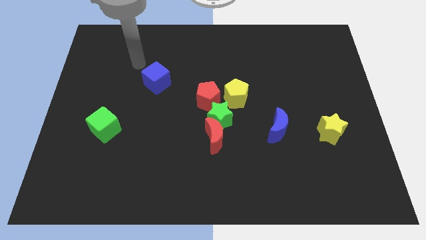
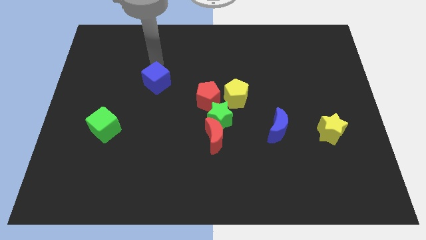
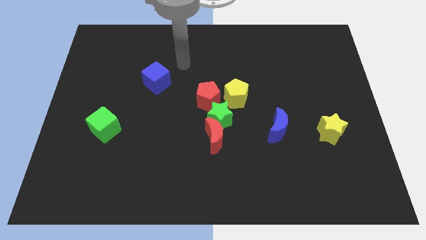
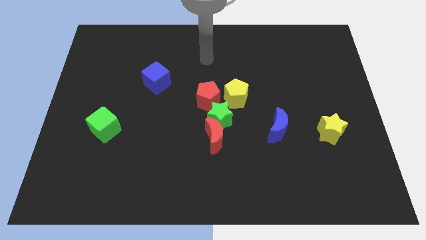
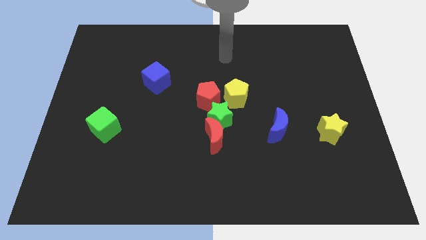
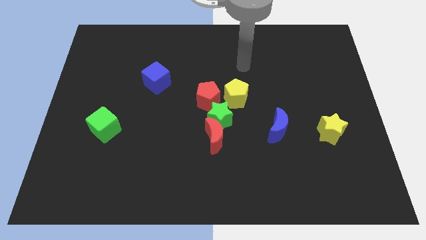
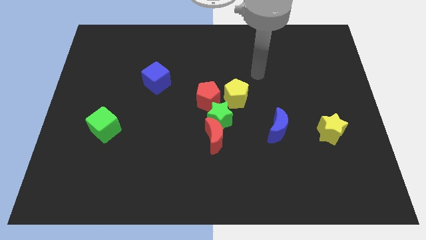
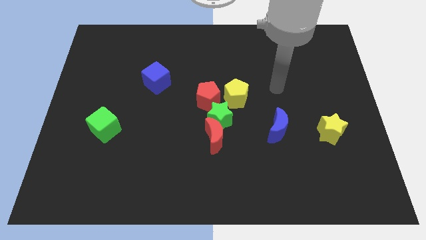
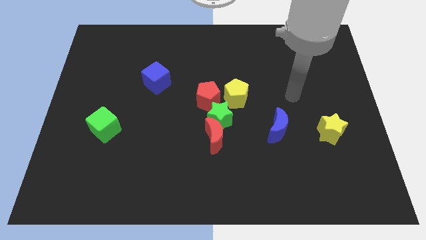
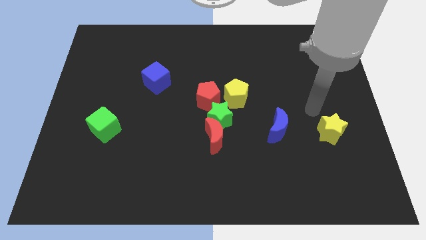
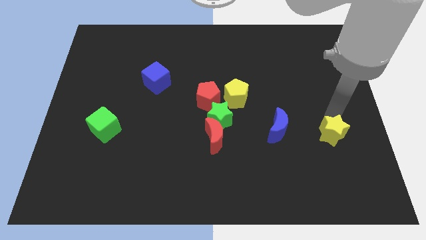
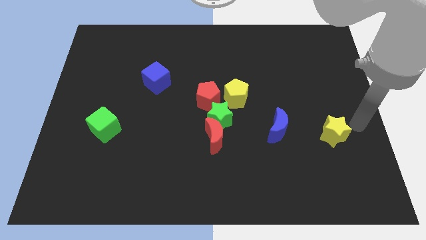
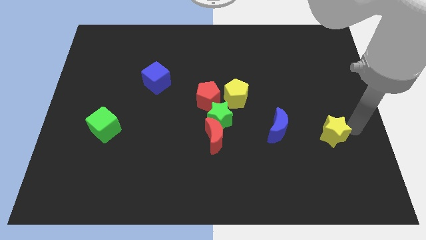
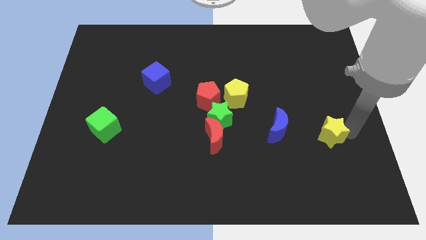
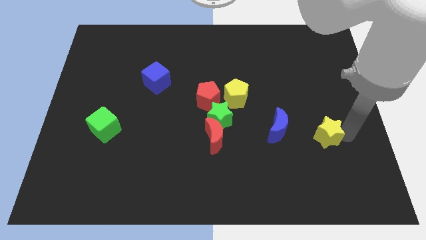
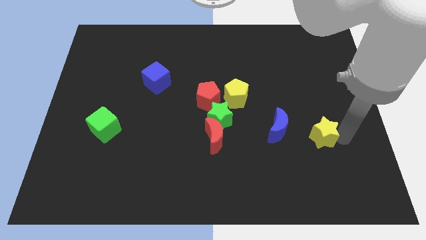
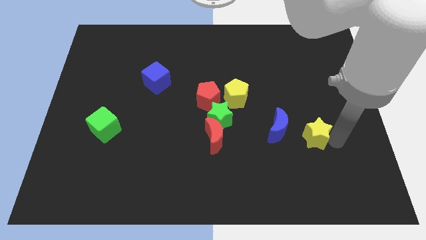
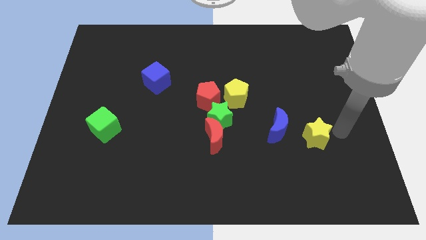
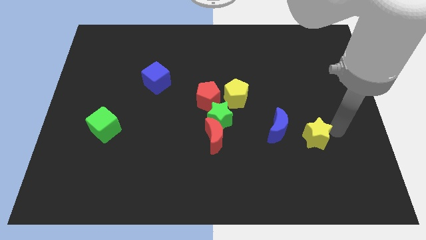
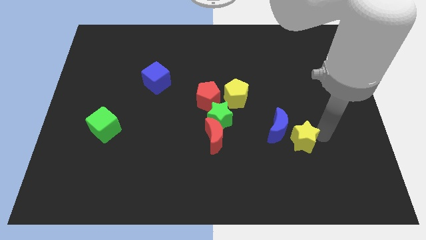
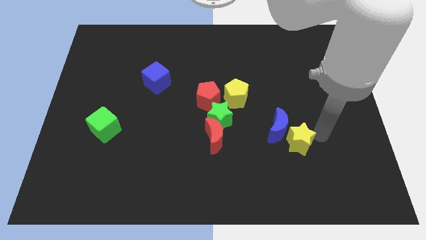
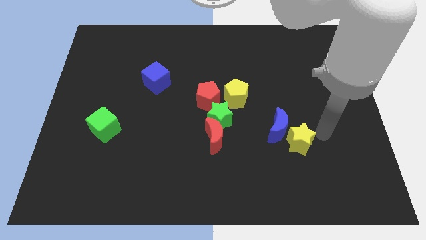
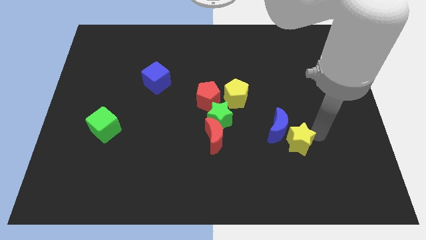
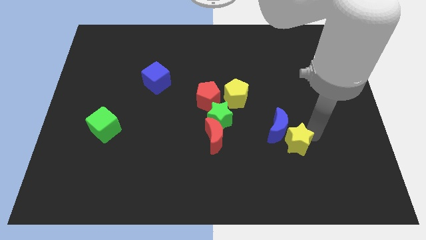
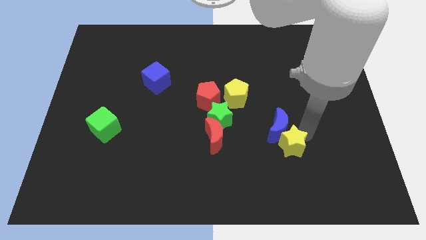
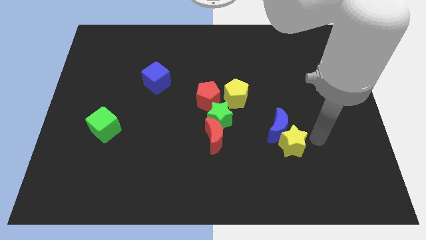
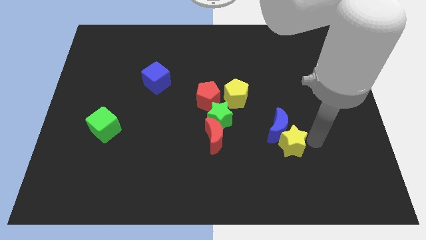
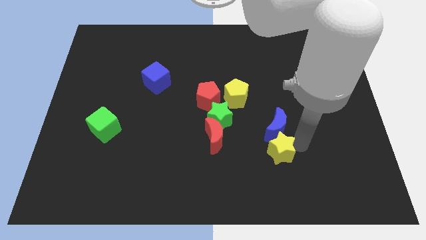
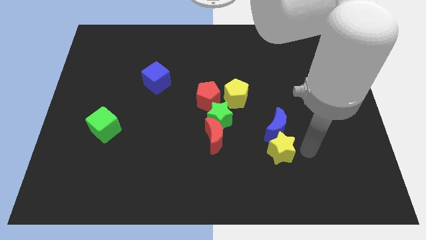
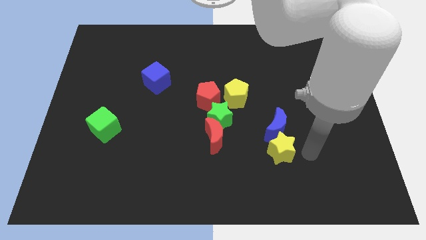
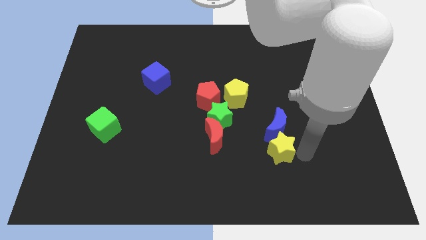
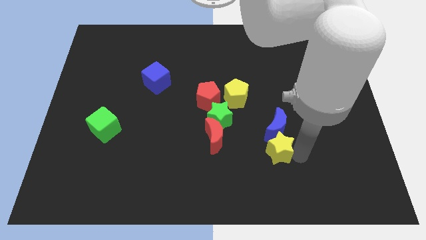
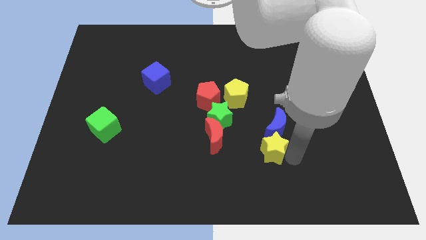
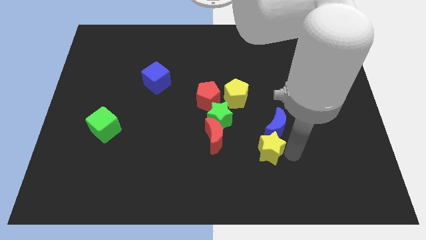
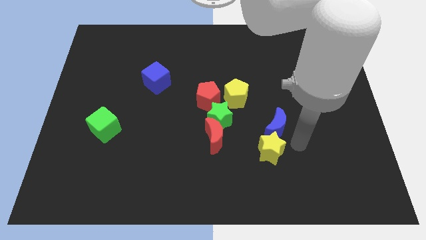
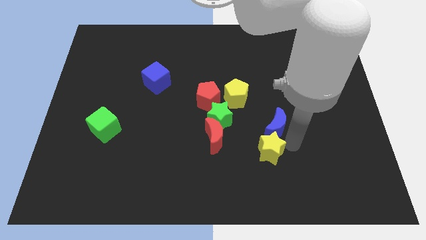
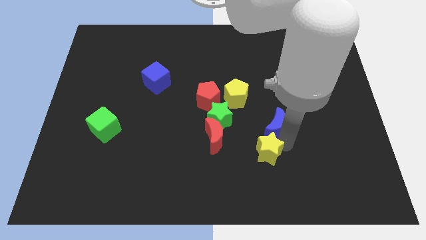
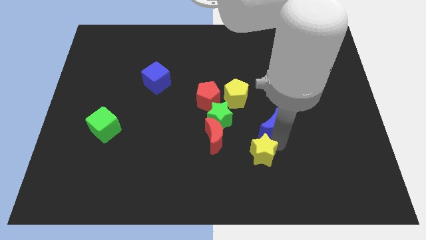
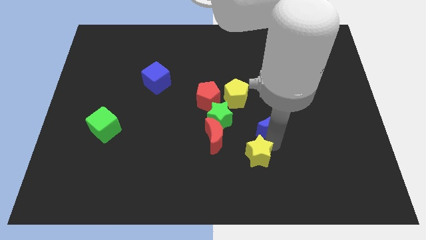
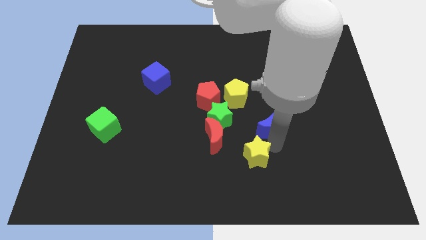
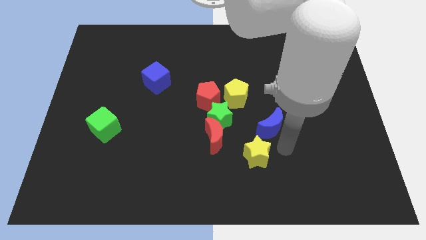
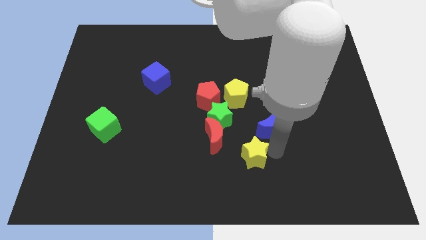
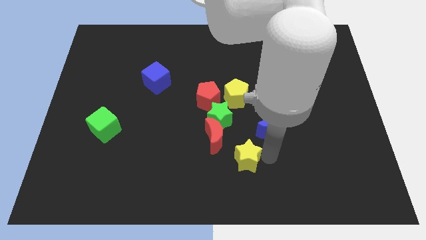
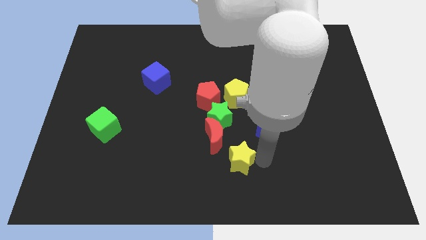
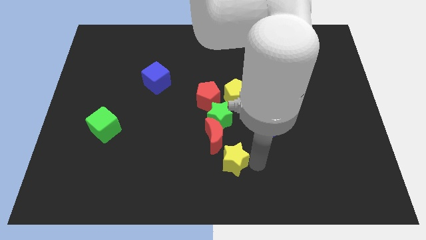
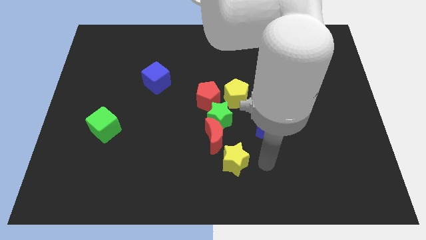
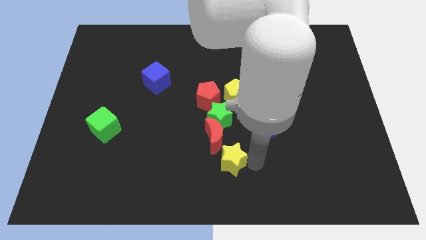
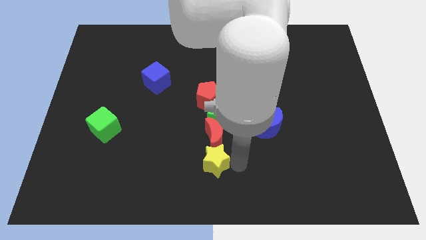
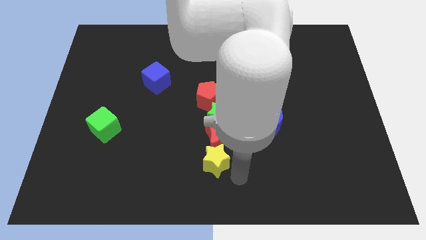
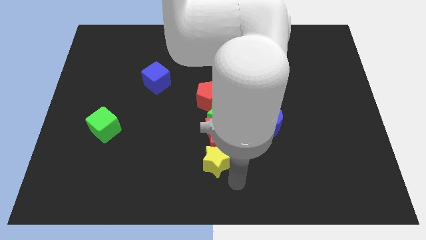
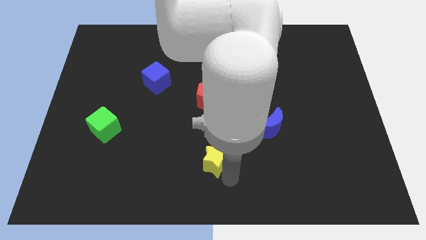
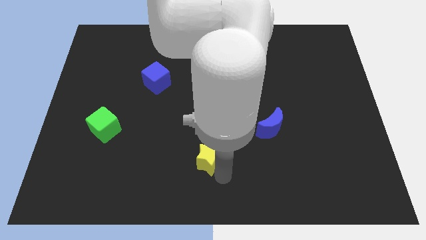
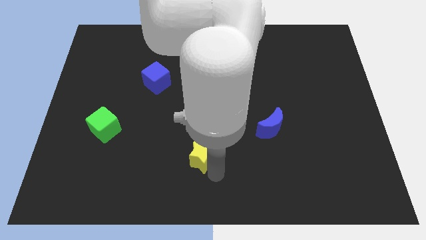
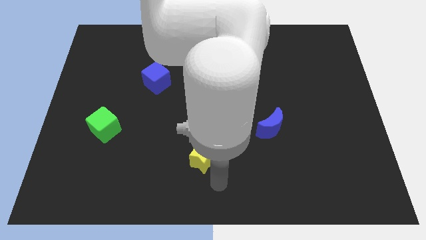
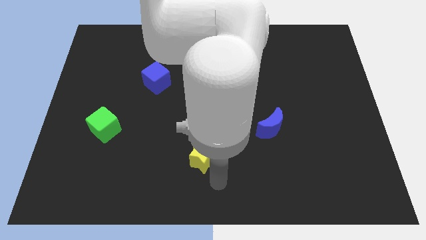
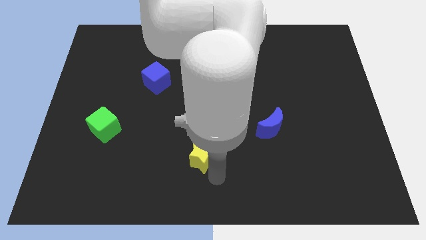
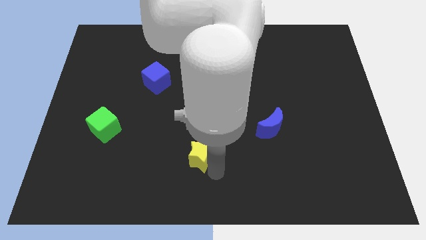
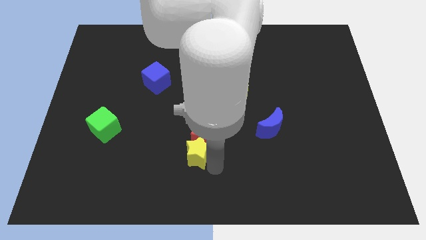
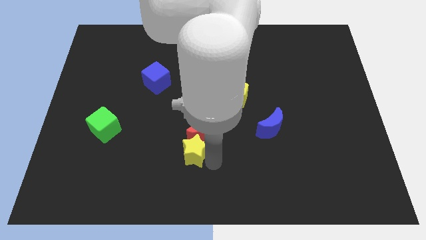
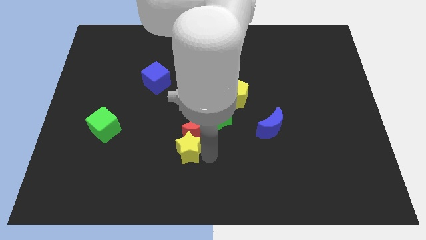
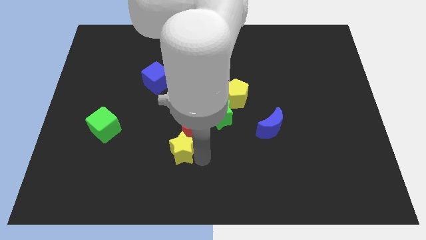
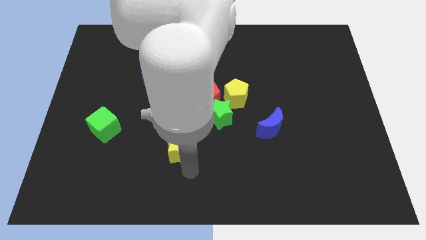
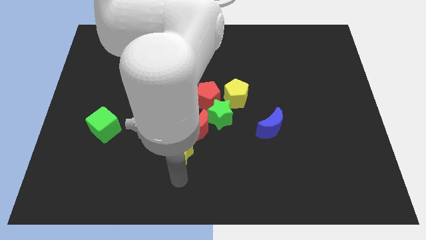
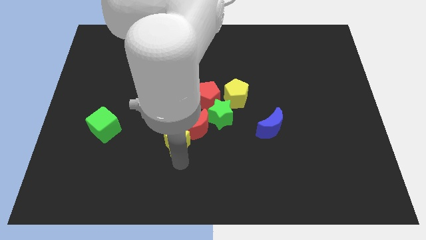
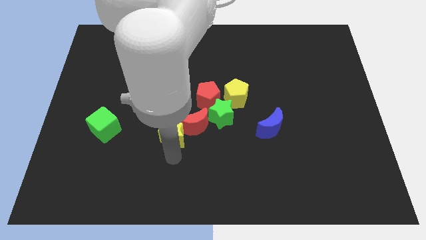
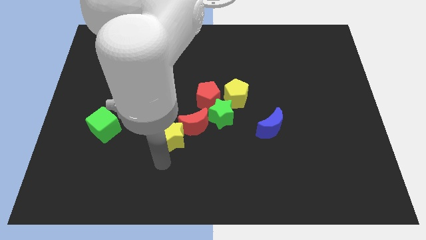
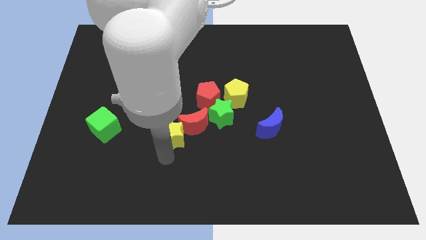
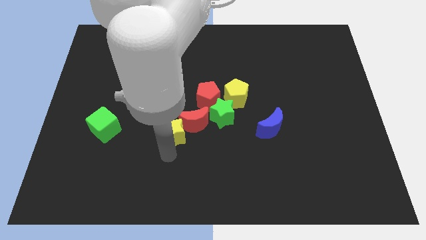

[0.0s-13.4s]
put the yellow star diagonally down and to the left of the red pentagon

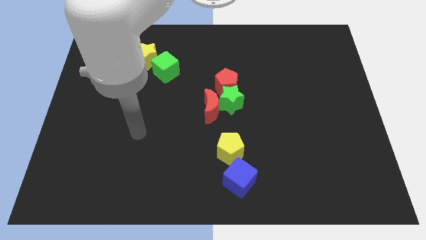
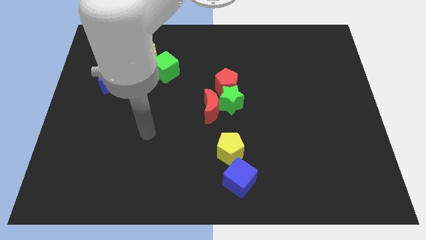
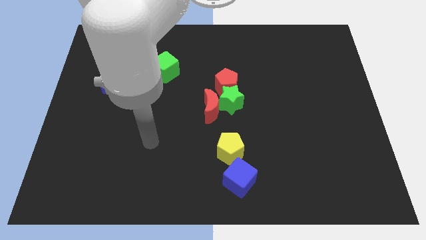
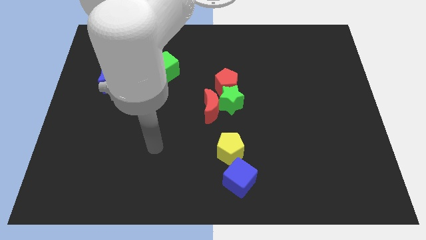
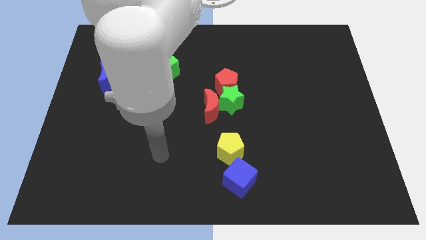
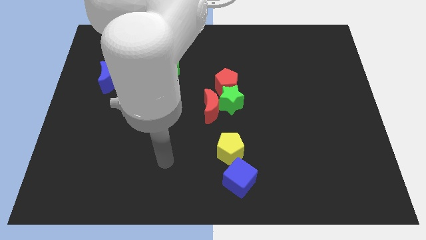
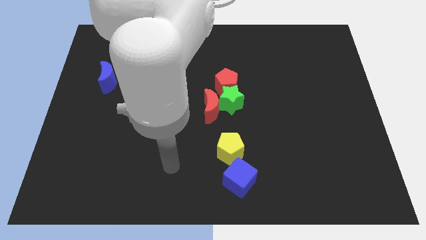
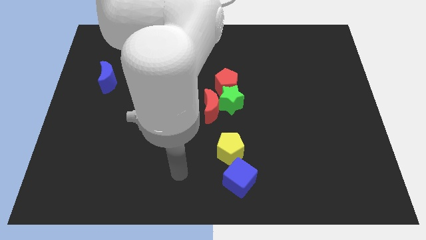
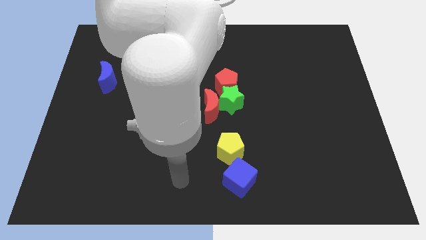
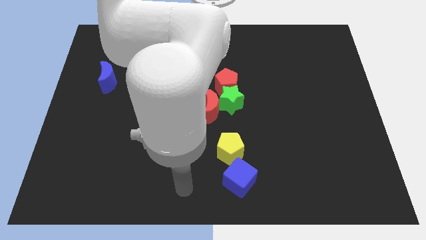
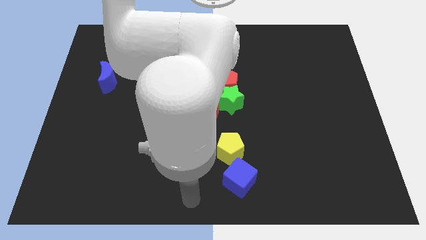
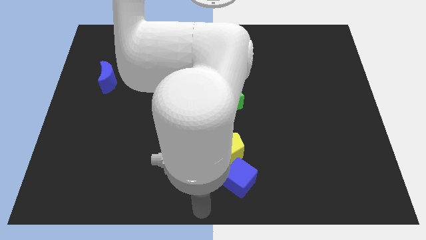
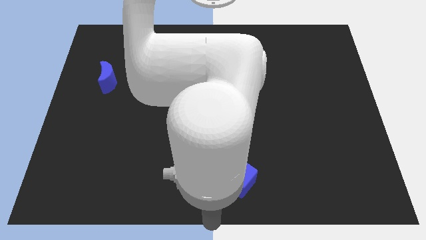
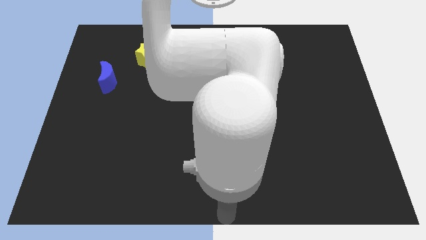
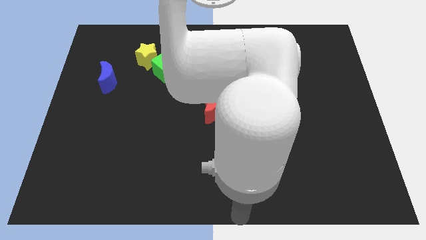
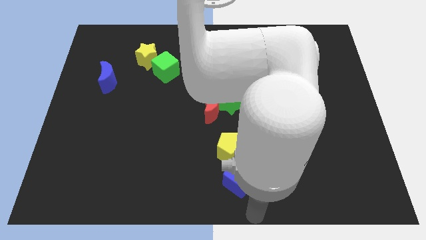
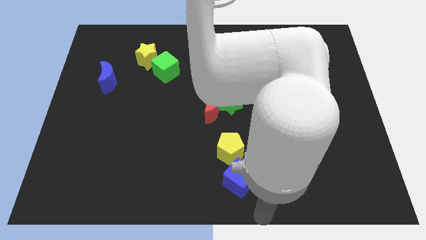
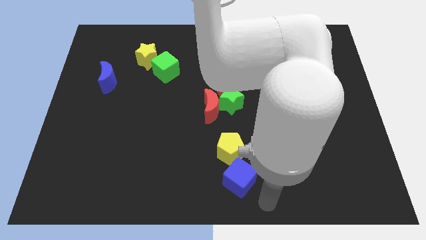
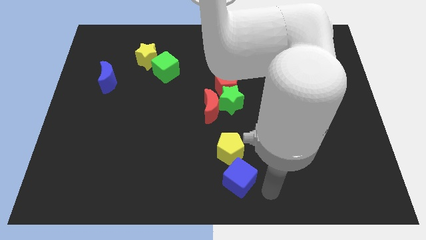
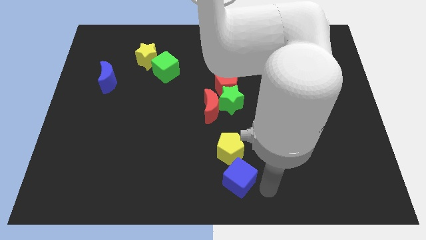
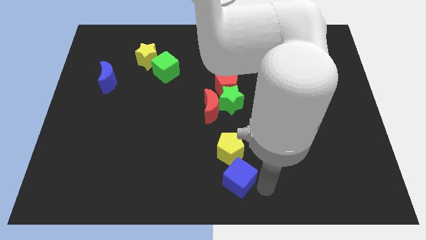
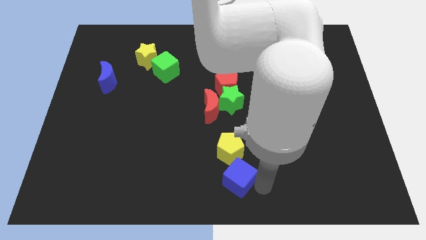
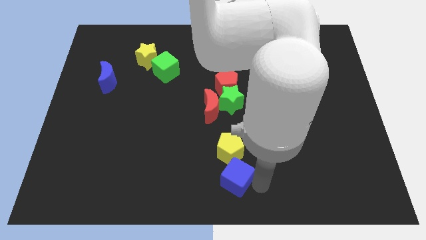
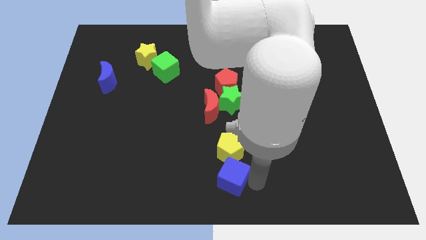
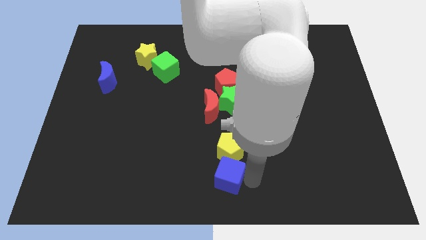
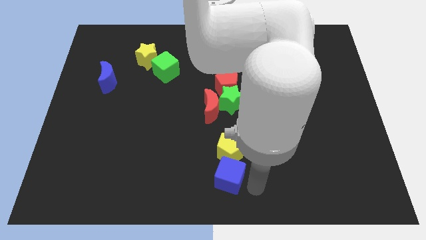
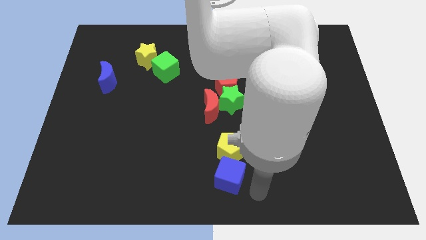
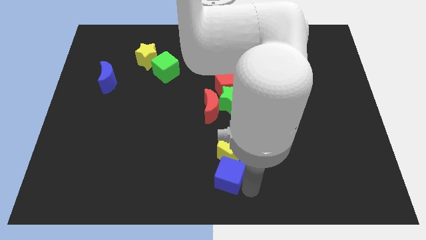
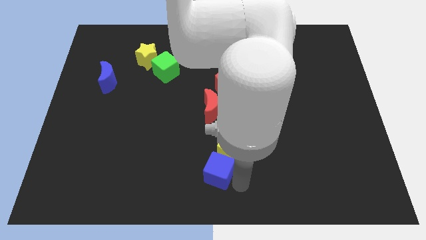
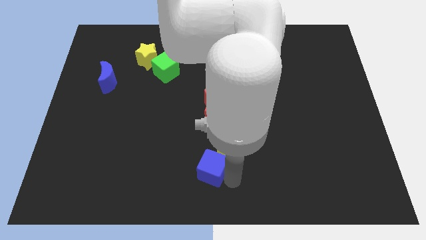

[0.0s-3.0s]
push the blue cube to the left side of the yellow pentagon
